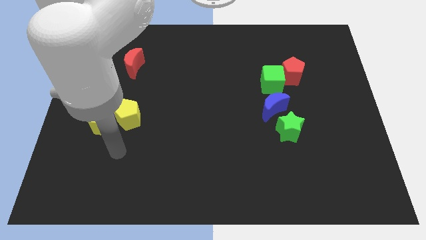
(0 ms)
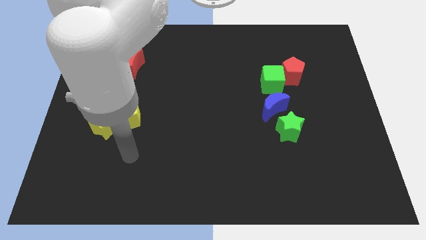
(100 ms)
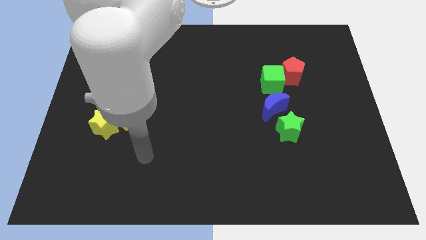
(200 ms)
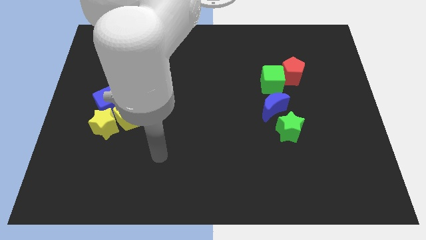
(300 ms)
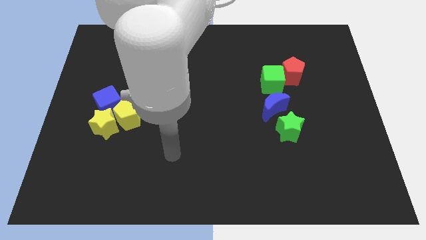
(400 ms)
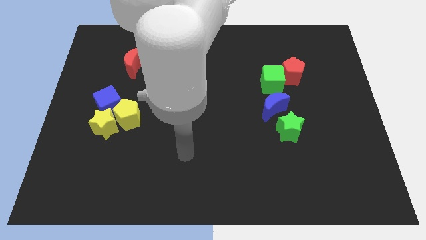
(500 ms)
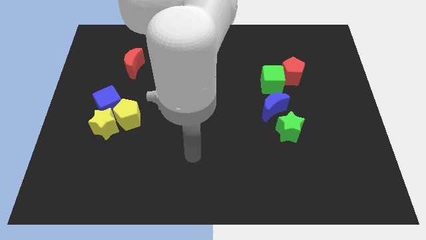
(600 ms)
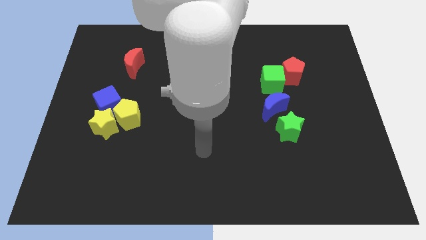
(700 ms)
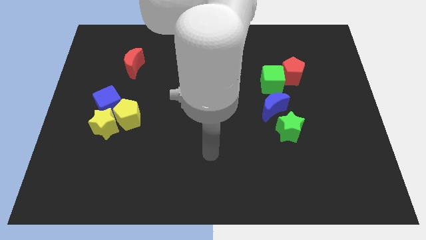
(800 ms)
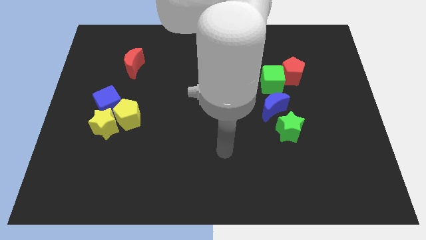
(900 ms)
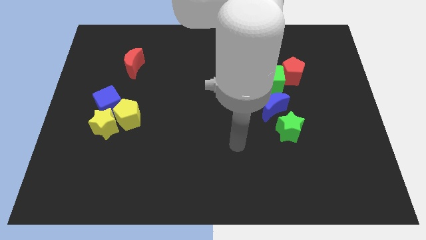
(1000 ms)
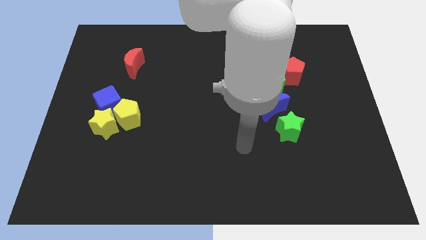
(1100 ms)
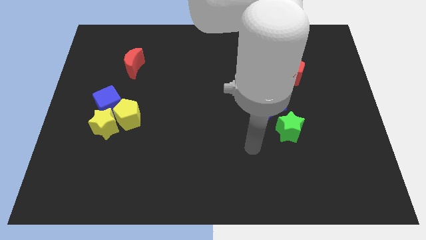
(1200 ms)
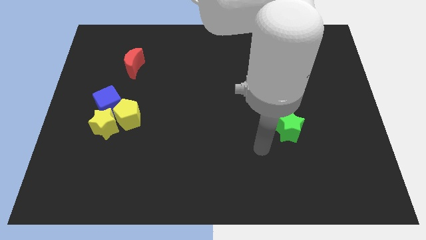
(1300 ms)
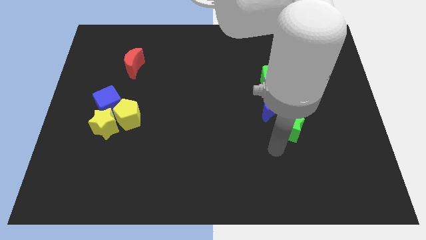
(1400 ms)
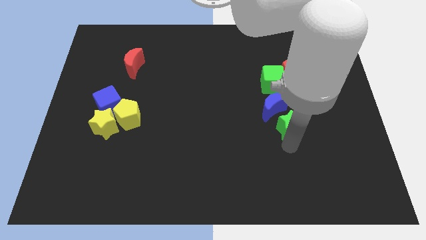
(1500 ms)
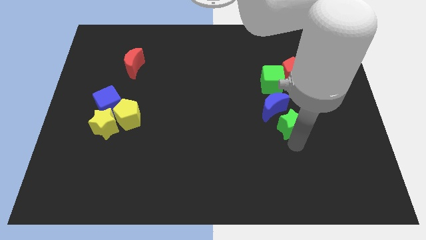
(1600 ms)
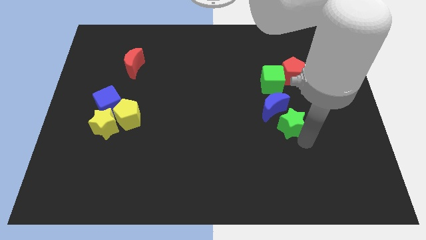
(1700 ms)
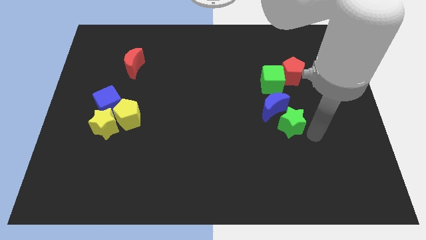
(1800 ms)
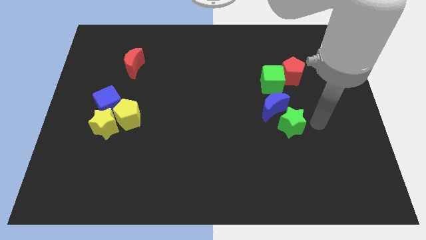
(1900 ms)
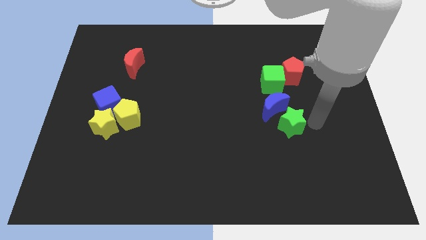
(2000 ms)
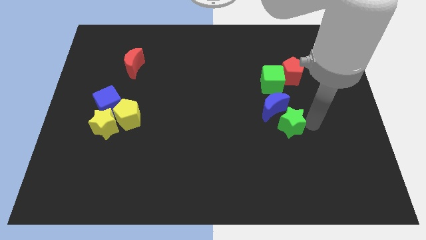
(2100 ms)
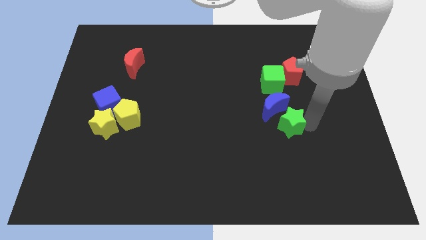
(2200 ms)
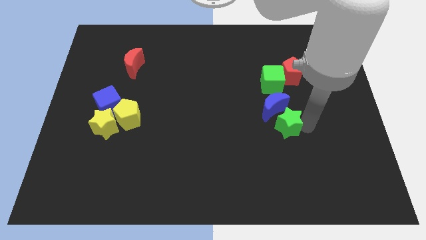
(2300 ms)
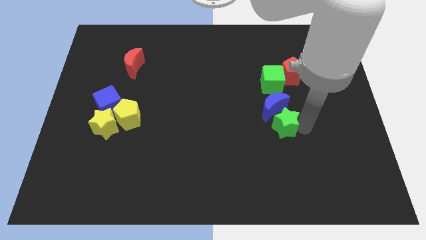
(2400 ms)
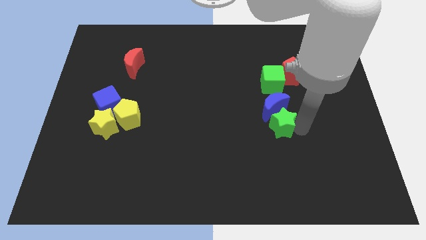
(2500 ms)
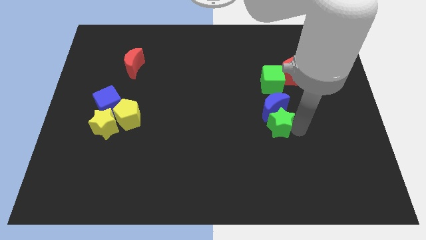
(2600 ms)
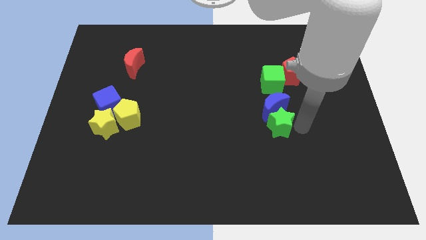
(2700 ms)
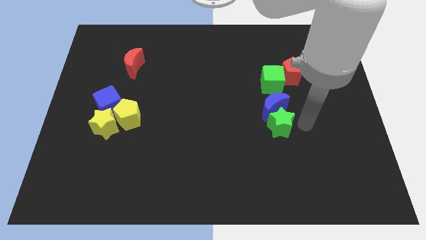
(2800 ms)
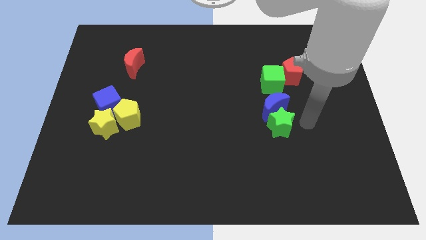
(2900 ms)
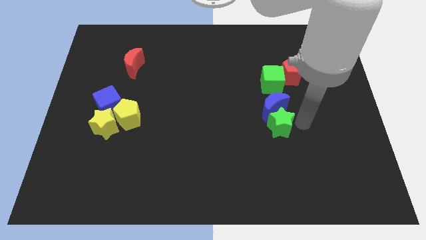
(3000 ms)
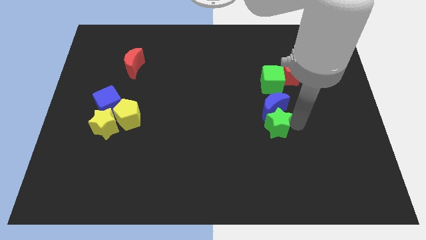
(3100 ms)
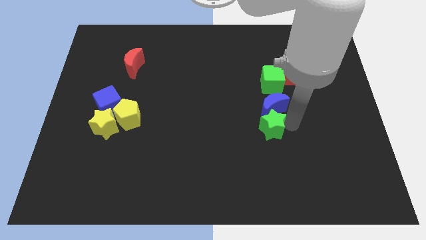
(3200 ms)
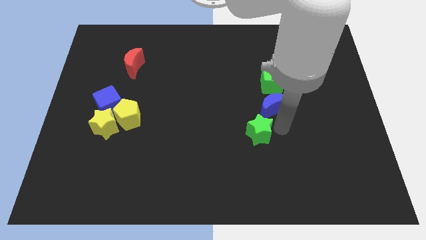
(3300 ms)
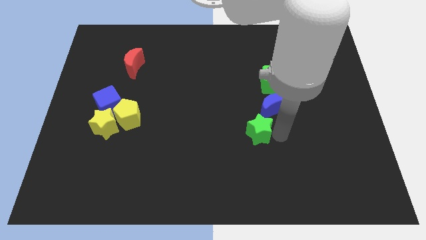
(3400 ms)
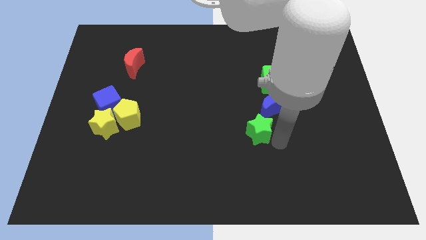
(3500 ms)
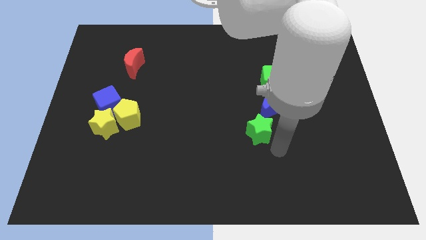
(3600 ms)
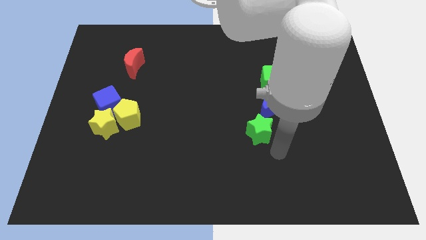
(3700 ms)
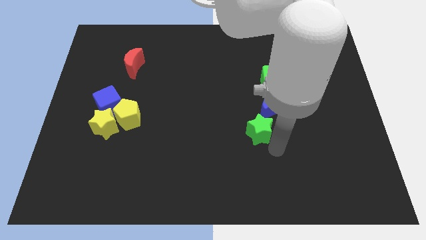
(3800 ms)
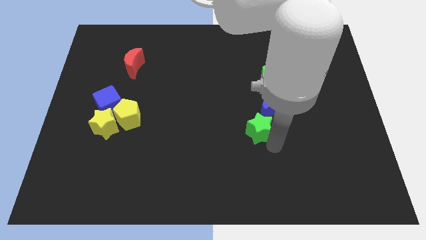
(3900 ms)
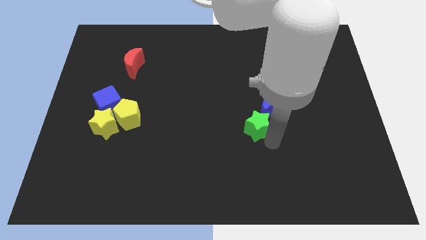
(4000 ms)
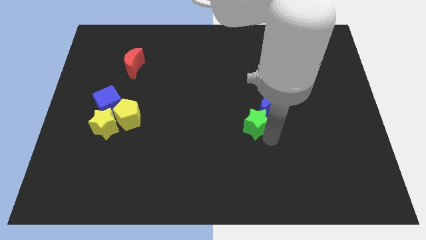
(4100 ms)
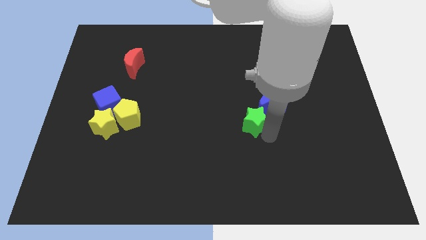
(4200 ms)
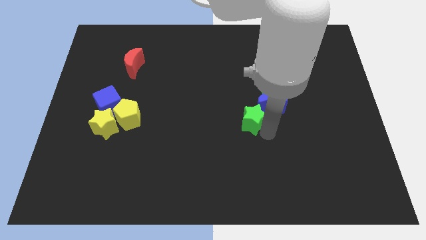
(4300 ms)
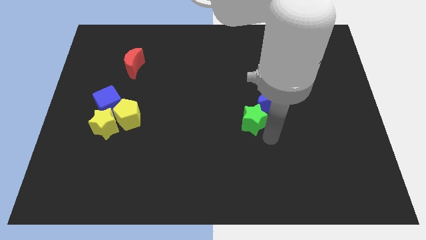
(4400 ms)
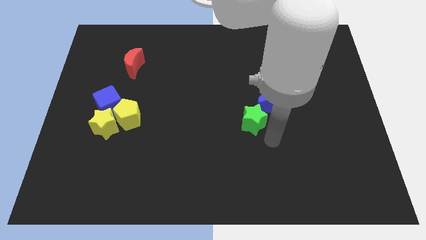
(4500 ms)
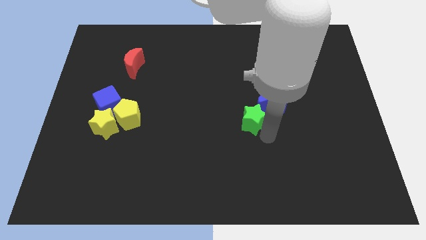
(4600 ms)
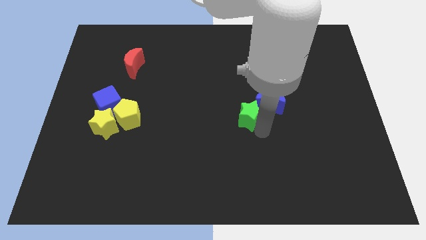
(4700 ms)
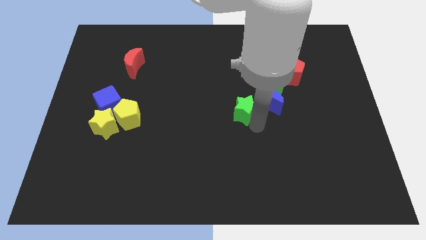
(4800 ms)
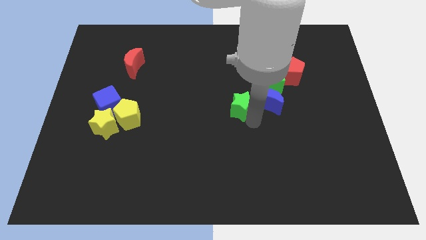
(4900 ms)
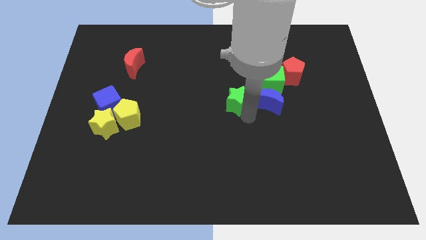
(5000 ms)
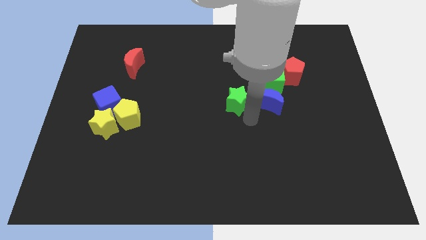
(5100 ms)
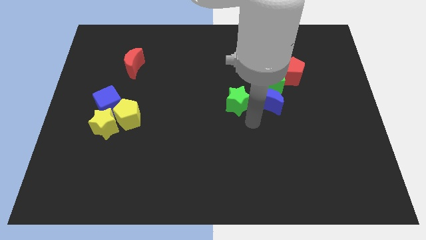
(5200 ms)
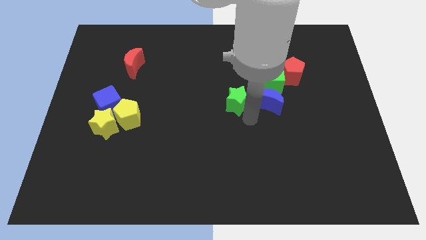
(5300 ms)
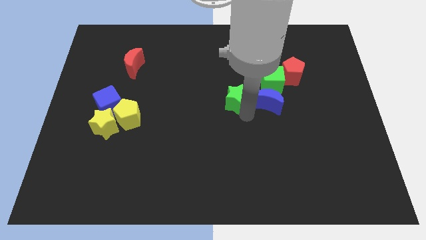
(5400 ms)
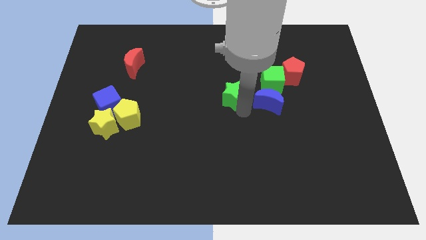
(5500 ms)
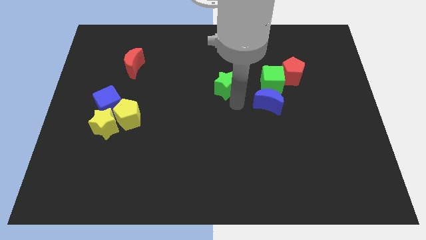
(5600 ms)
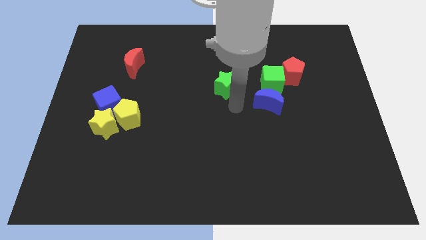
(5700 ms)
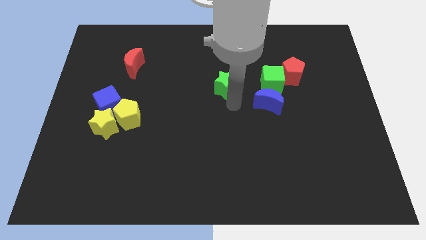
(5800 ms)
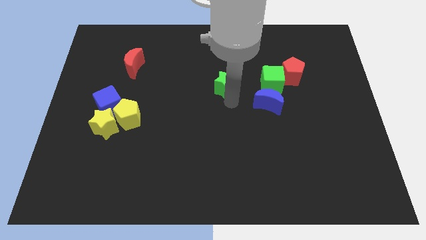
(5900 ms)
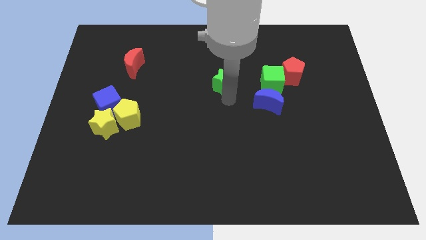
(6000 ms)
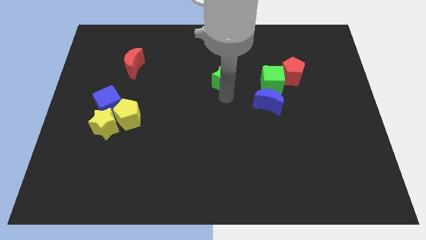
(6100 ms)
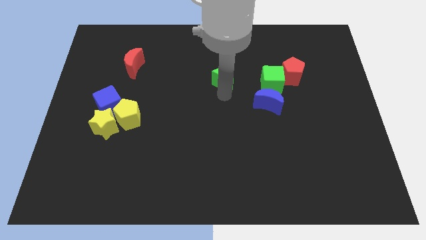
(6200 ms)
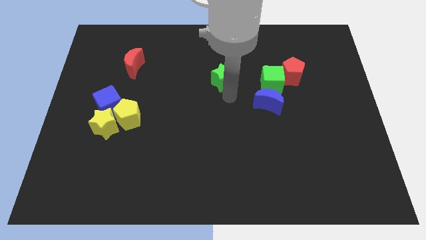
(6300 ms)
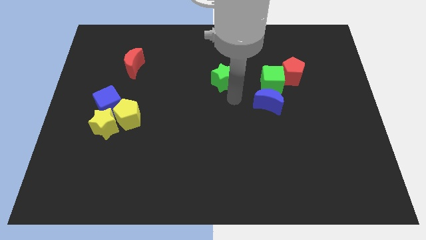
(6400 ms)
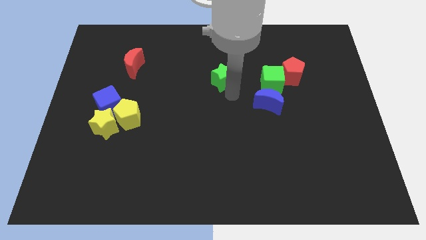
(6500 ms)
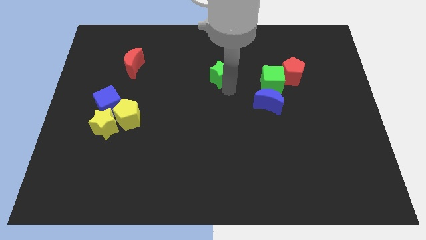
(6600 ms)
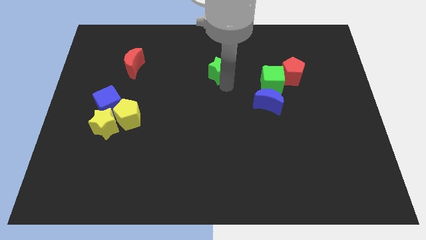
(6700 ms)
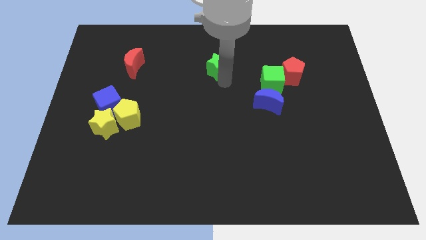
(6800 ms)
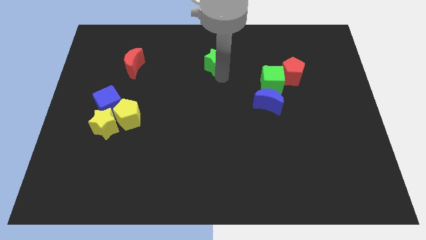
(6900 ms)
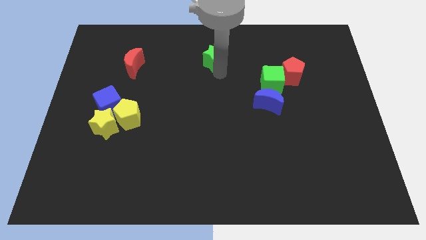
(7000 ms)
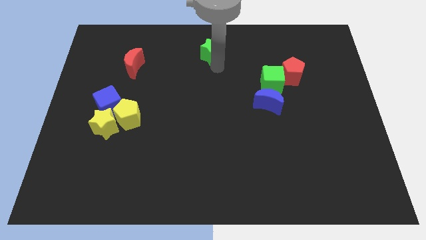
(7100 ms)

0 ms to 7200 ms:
slide the green star to the top

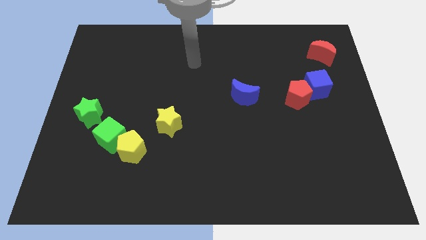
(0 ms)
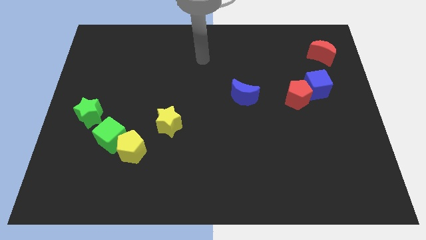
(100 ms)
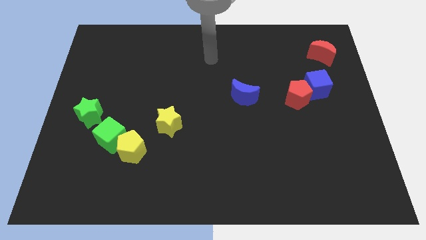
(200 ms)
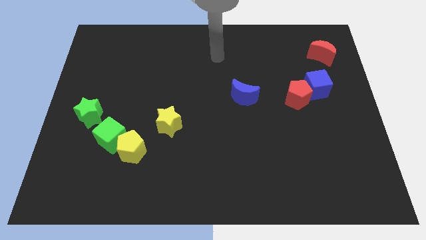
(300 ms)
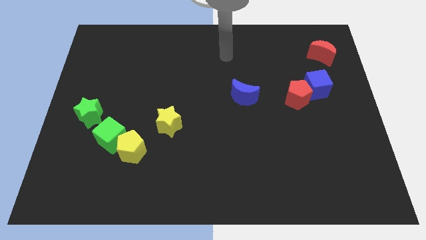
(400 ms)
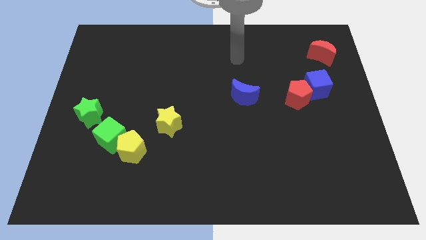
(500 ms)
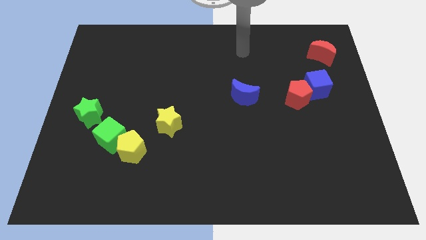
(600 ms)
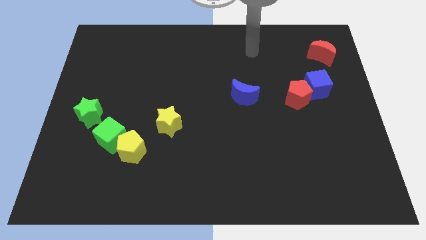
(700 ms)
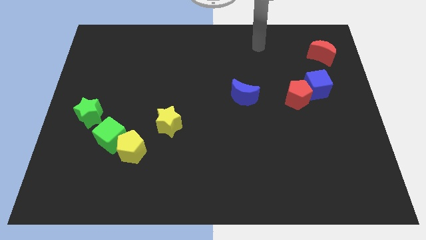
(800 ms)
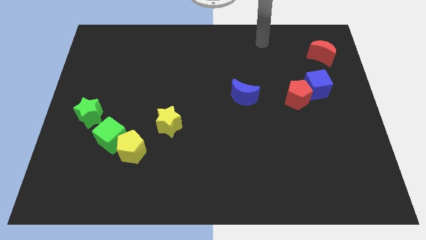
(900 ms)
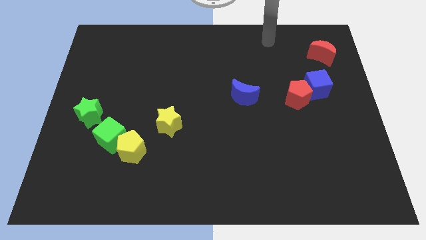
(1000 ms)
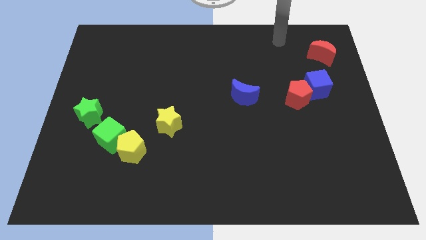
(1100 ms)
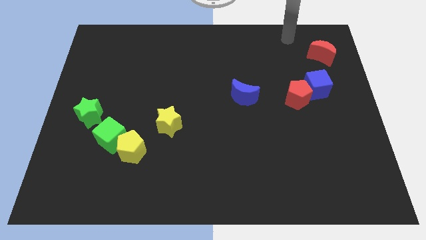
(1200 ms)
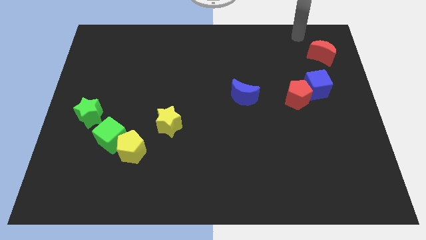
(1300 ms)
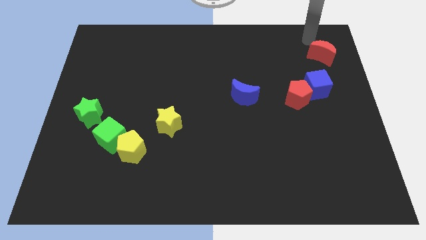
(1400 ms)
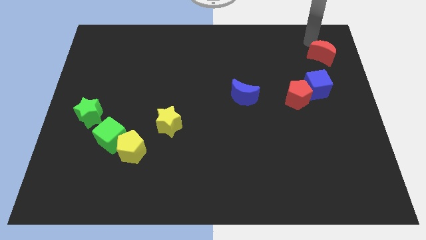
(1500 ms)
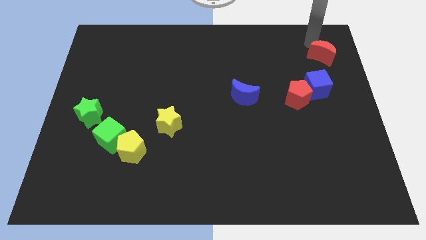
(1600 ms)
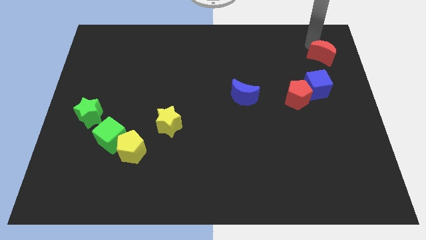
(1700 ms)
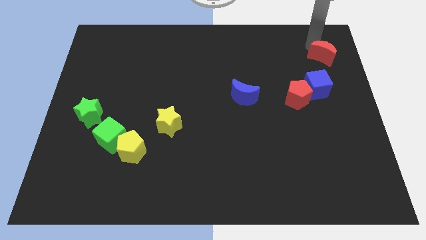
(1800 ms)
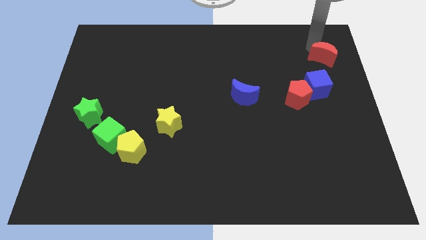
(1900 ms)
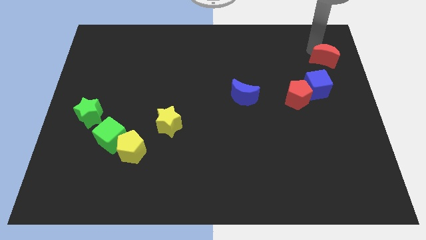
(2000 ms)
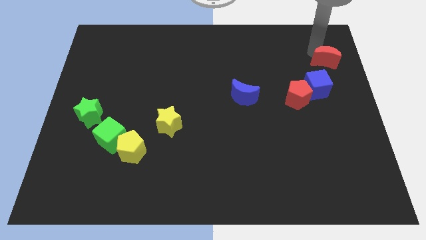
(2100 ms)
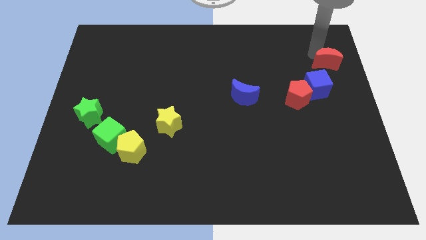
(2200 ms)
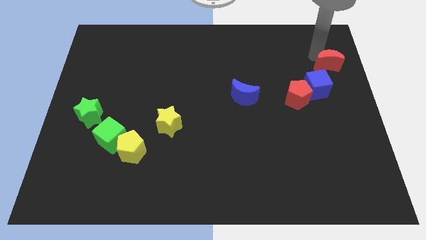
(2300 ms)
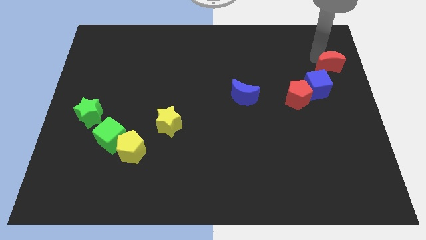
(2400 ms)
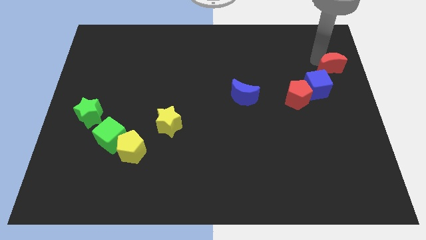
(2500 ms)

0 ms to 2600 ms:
put the red moon to the center right
